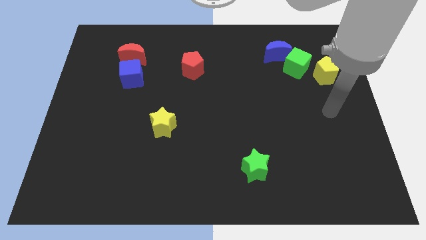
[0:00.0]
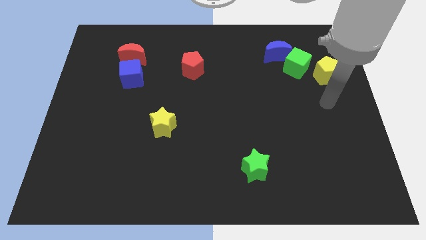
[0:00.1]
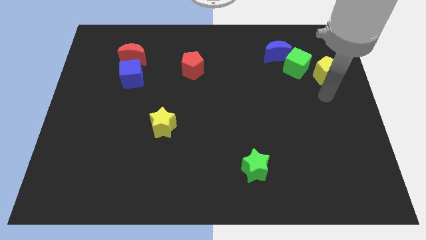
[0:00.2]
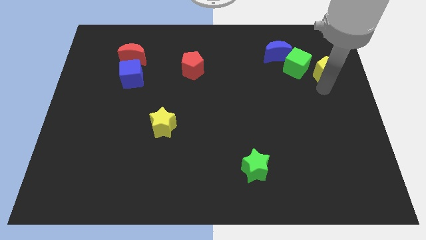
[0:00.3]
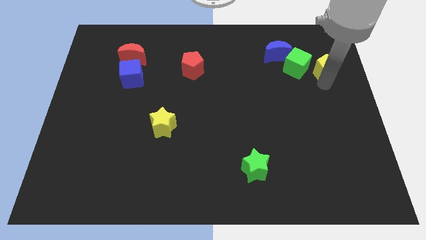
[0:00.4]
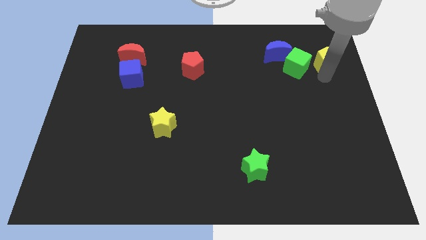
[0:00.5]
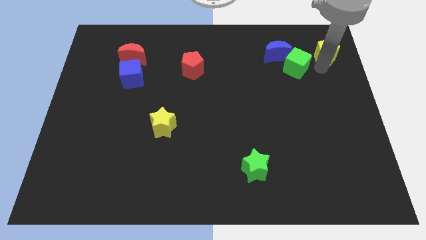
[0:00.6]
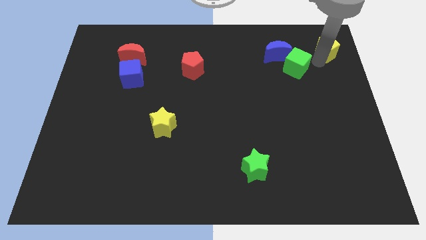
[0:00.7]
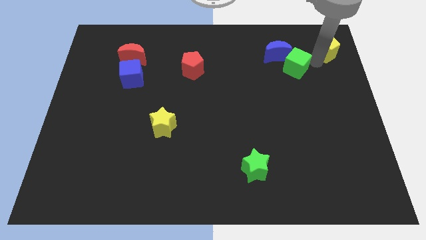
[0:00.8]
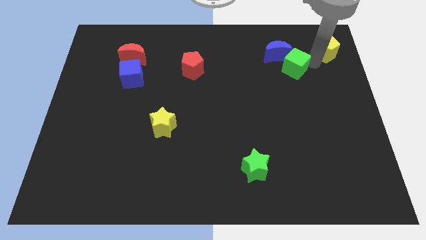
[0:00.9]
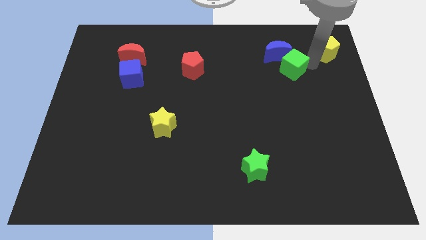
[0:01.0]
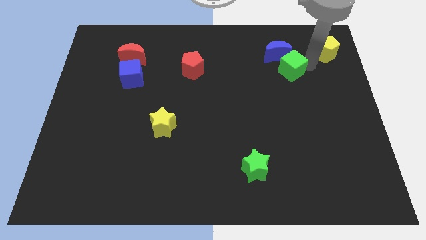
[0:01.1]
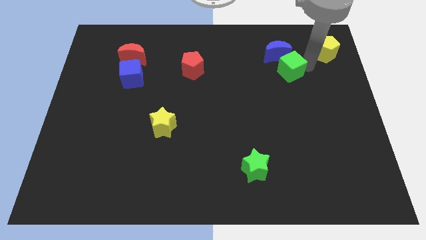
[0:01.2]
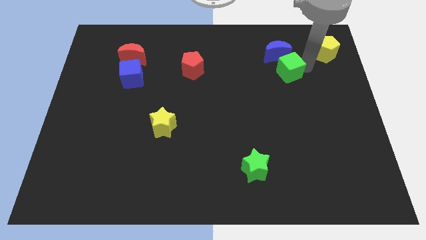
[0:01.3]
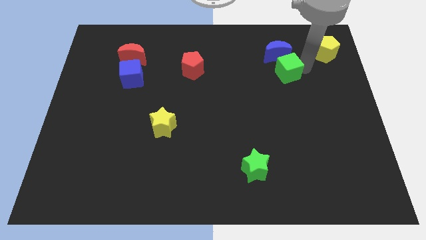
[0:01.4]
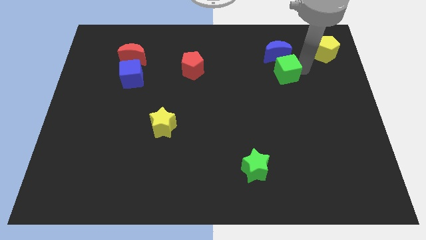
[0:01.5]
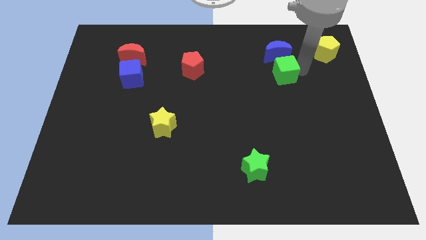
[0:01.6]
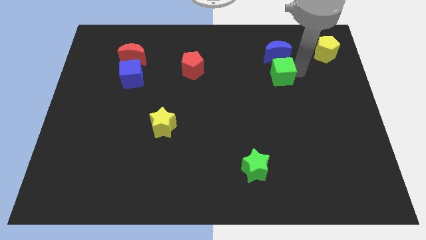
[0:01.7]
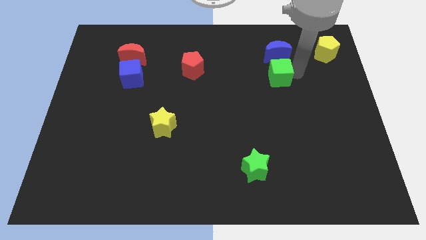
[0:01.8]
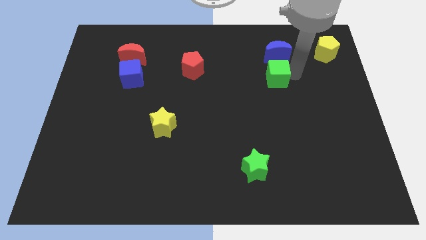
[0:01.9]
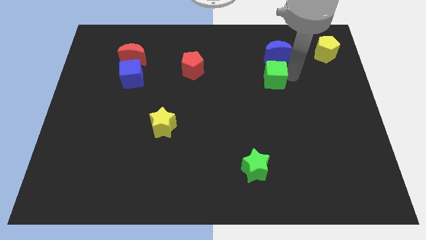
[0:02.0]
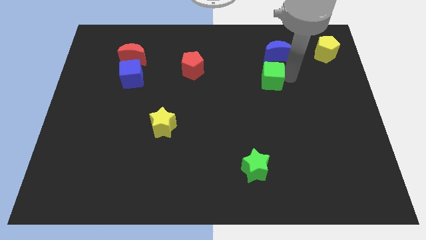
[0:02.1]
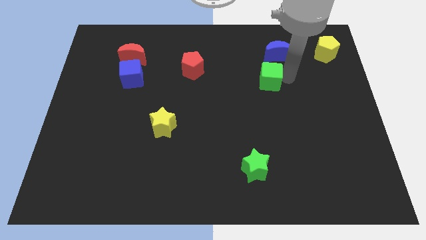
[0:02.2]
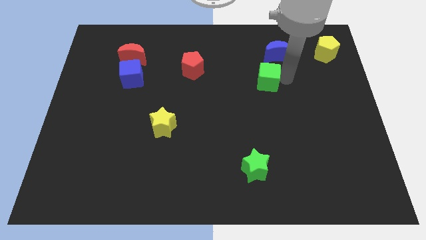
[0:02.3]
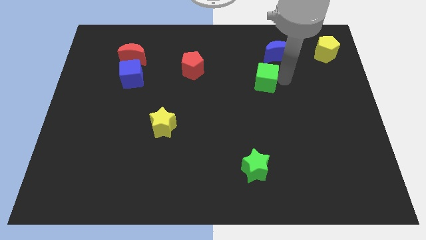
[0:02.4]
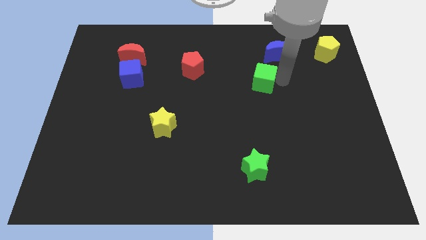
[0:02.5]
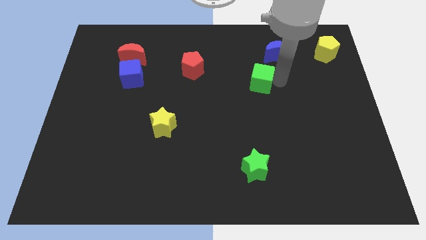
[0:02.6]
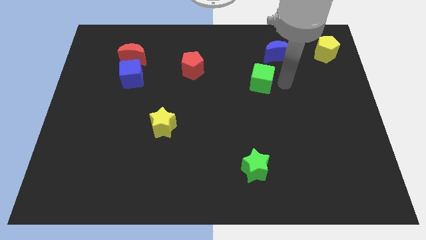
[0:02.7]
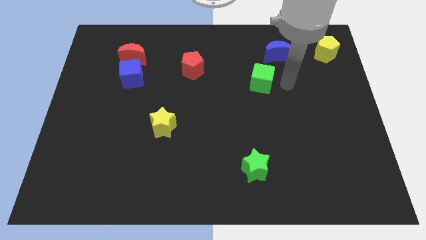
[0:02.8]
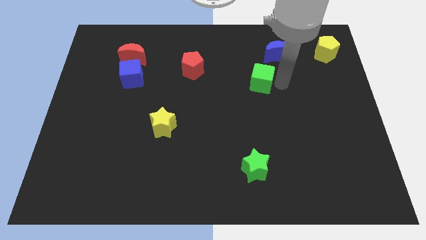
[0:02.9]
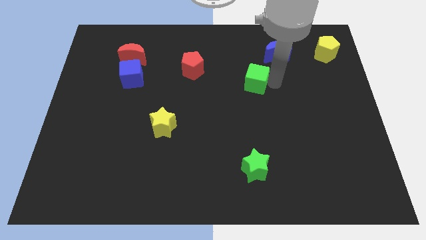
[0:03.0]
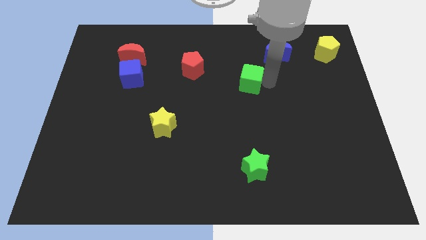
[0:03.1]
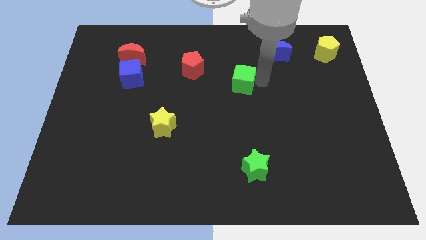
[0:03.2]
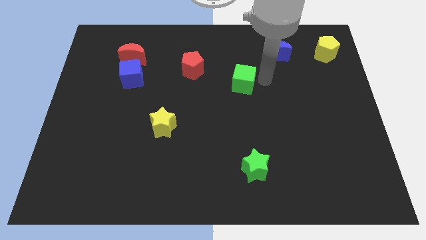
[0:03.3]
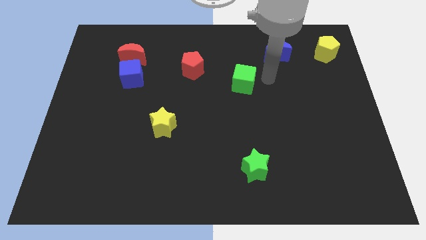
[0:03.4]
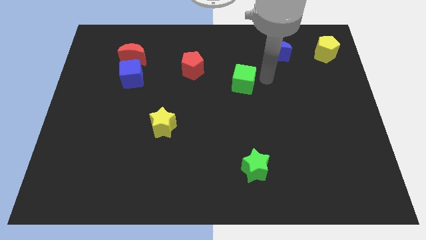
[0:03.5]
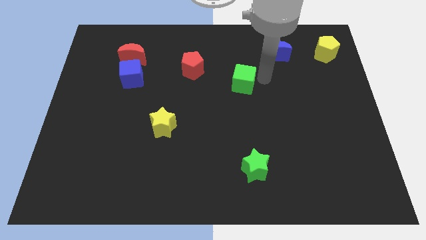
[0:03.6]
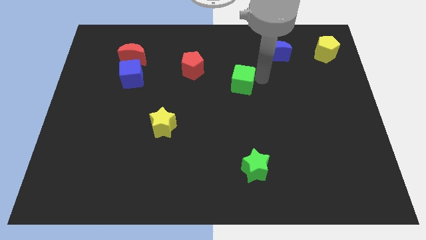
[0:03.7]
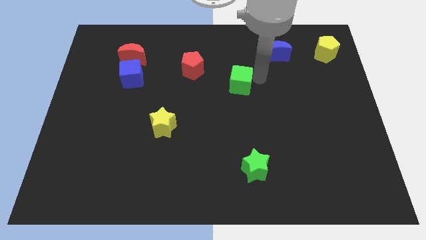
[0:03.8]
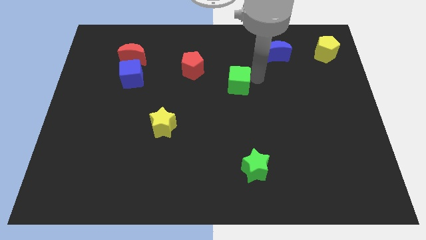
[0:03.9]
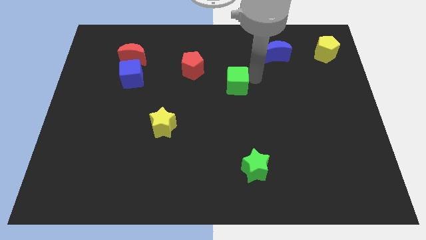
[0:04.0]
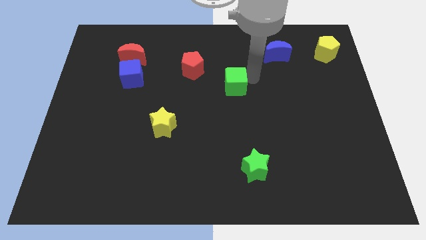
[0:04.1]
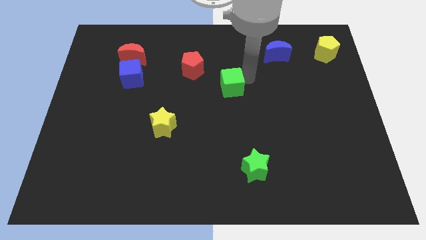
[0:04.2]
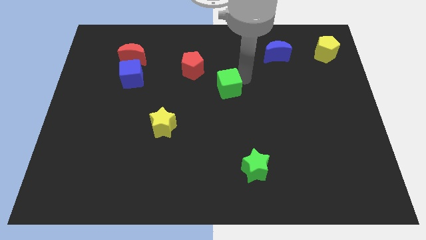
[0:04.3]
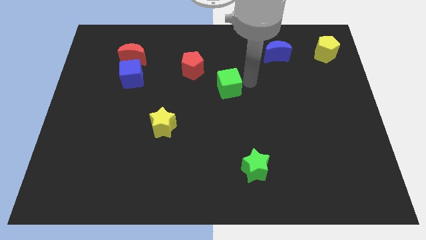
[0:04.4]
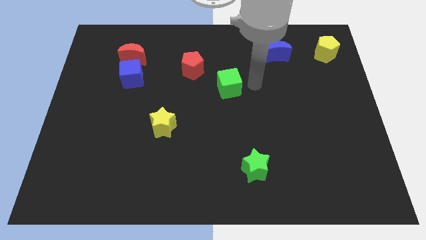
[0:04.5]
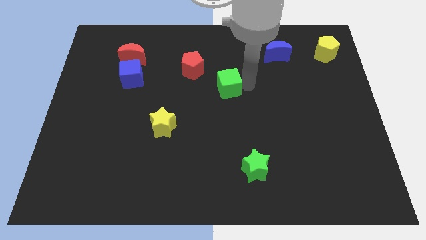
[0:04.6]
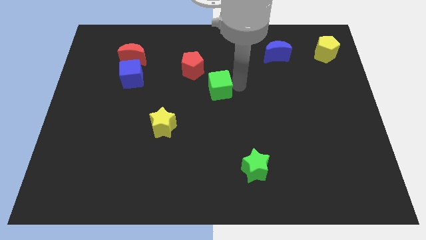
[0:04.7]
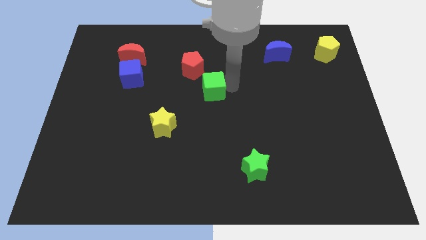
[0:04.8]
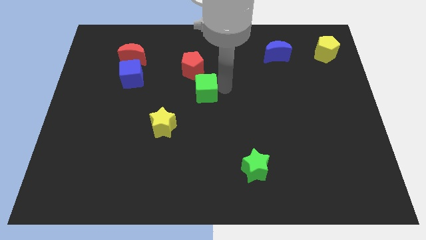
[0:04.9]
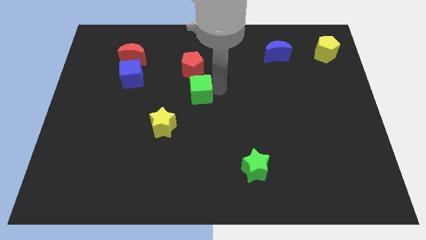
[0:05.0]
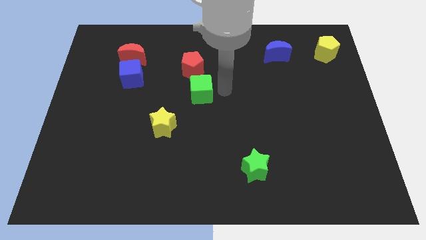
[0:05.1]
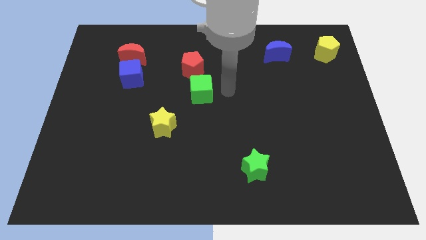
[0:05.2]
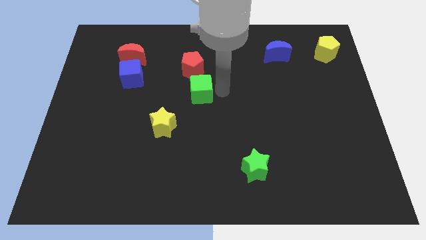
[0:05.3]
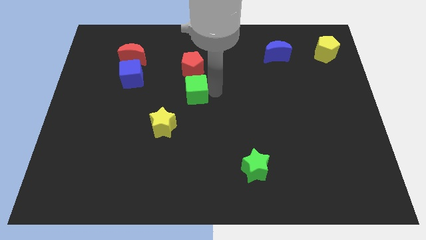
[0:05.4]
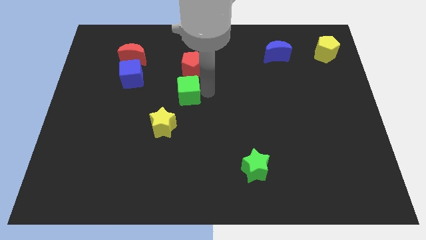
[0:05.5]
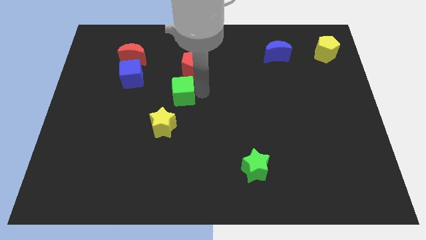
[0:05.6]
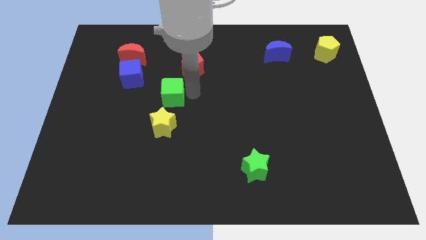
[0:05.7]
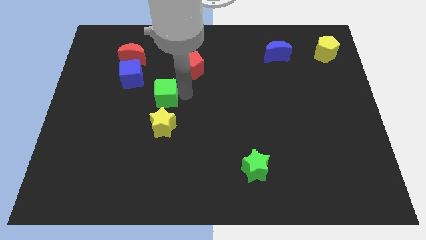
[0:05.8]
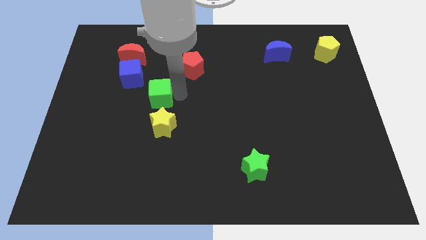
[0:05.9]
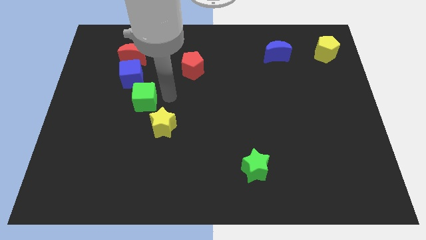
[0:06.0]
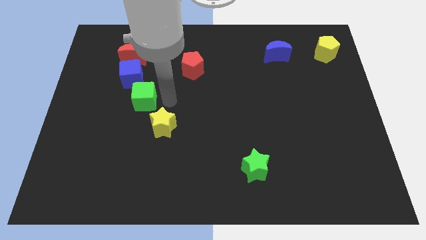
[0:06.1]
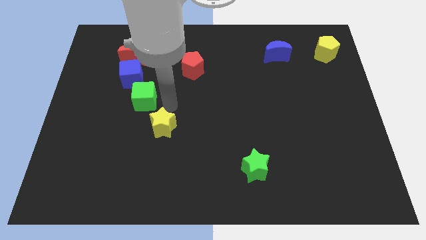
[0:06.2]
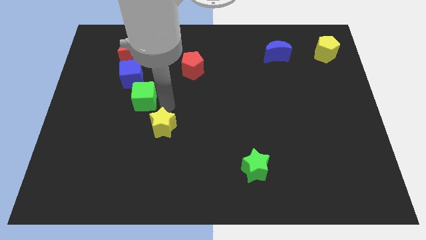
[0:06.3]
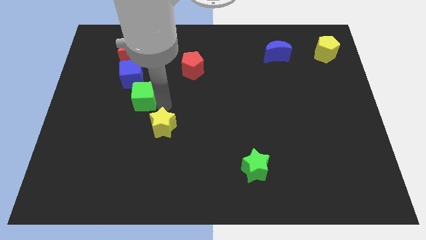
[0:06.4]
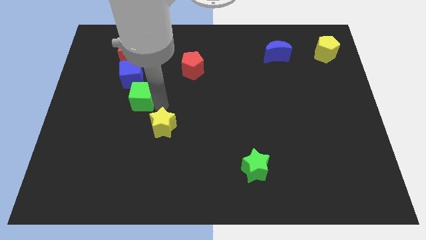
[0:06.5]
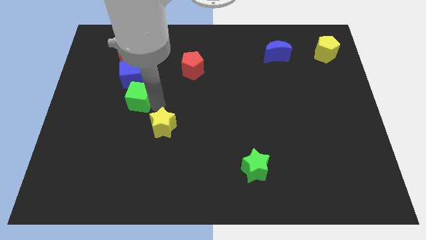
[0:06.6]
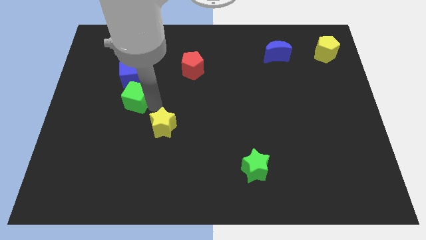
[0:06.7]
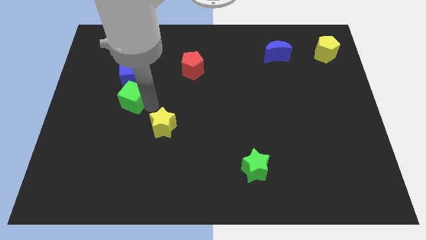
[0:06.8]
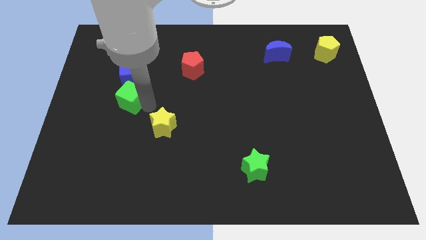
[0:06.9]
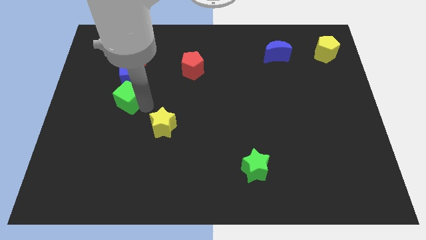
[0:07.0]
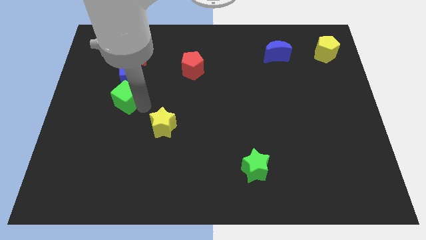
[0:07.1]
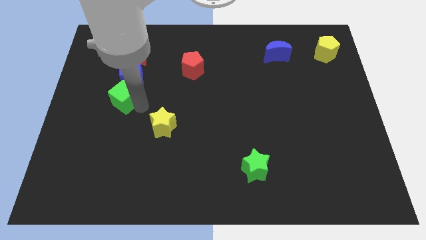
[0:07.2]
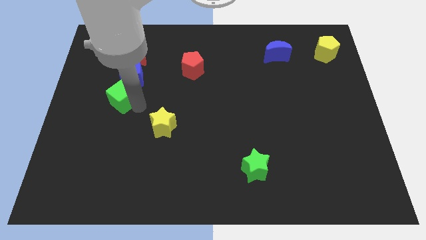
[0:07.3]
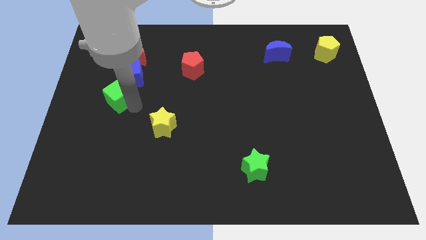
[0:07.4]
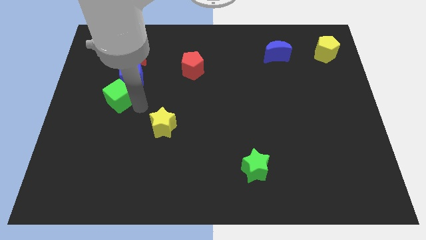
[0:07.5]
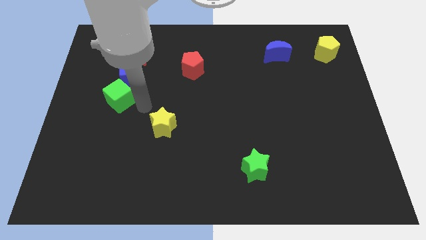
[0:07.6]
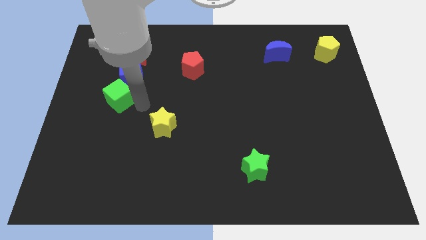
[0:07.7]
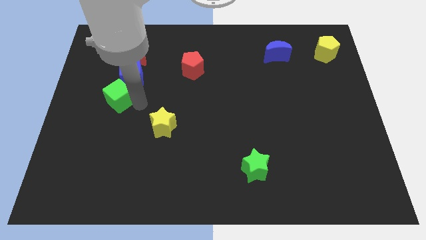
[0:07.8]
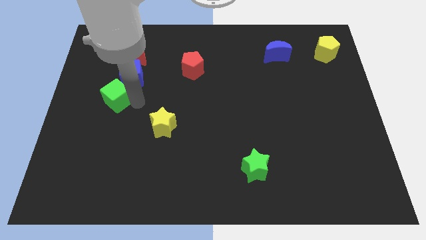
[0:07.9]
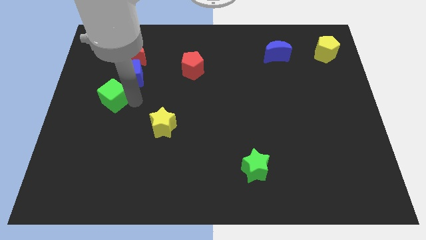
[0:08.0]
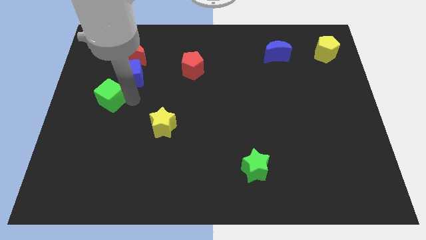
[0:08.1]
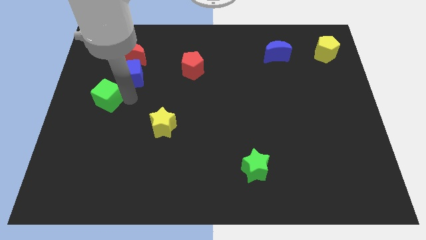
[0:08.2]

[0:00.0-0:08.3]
slide the green cube to the center left
